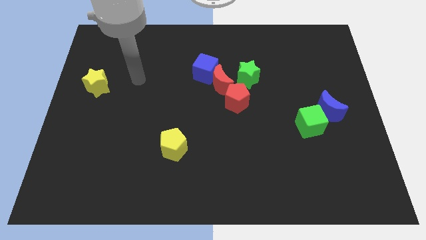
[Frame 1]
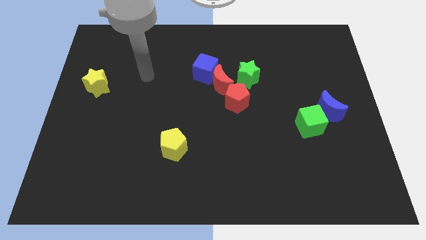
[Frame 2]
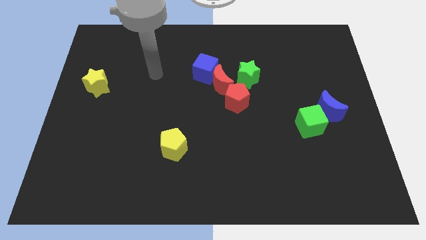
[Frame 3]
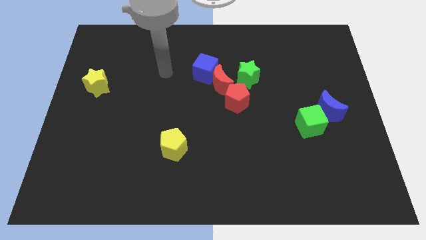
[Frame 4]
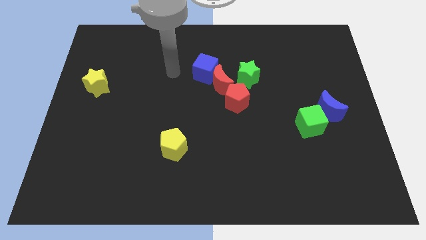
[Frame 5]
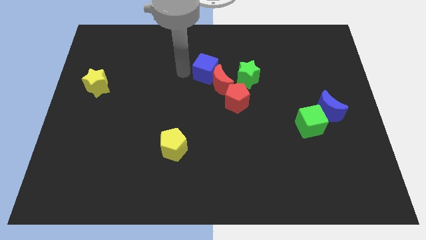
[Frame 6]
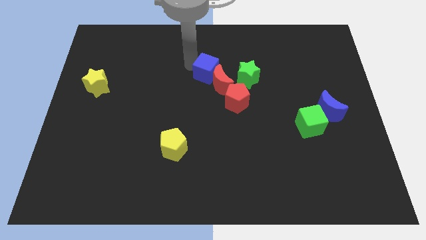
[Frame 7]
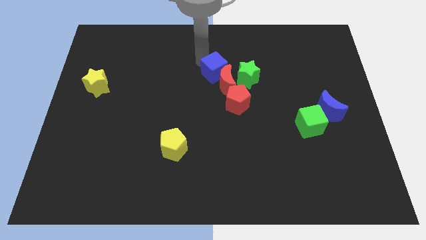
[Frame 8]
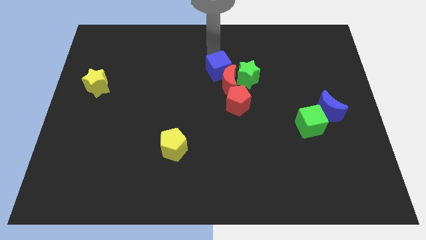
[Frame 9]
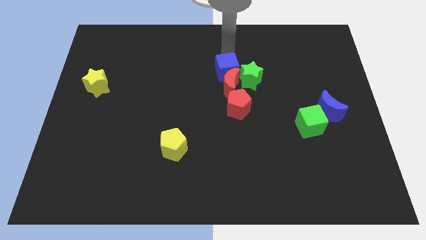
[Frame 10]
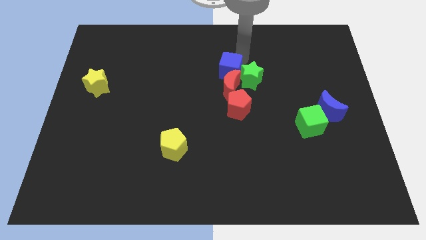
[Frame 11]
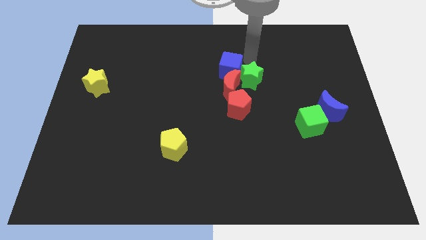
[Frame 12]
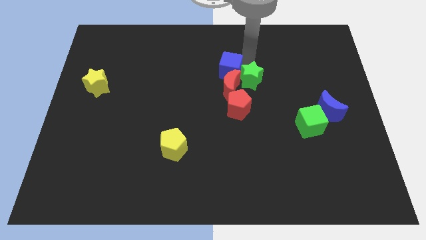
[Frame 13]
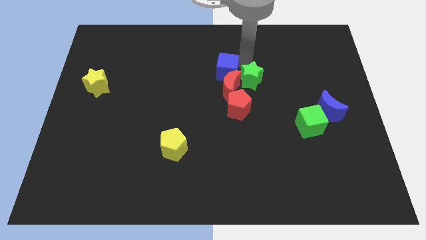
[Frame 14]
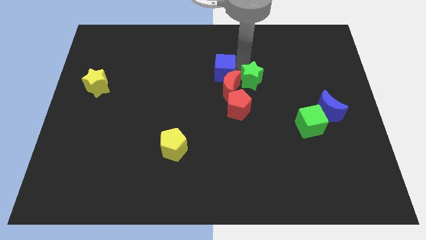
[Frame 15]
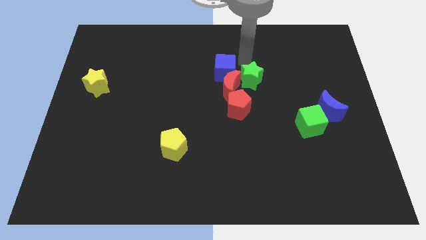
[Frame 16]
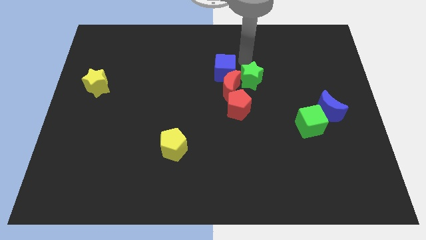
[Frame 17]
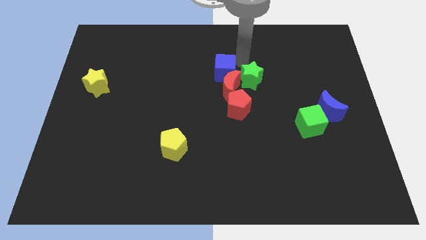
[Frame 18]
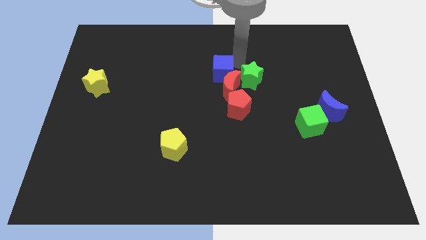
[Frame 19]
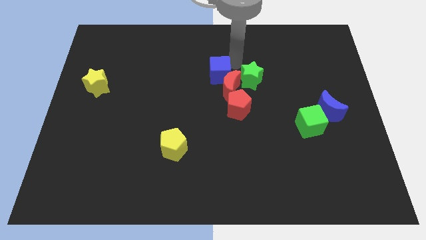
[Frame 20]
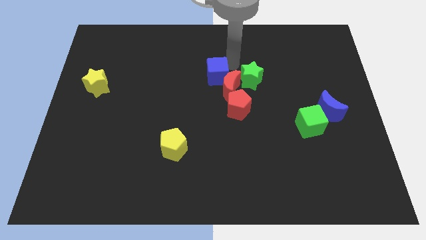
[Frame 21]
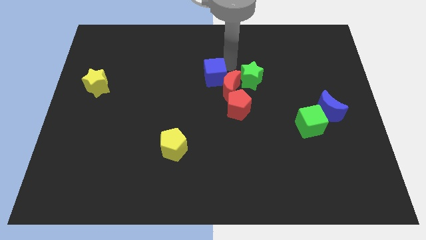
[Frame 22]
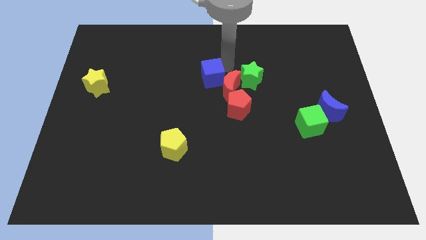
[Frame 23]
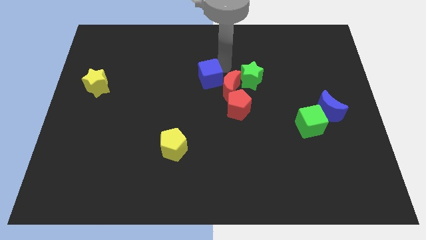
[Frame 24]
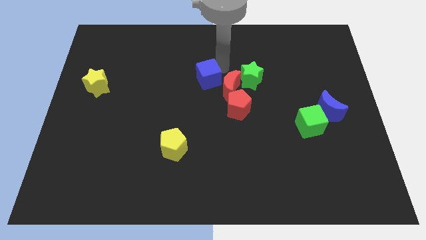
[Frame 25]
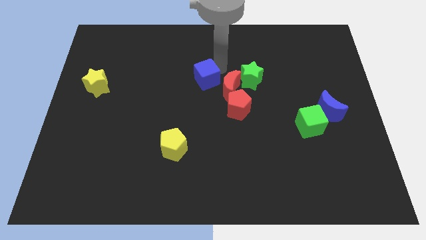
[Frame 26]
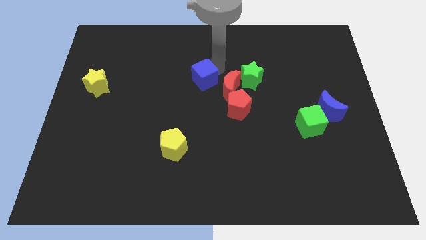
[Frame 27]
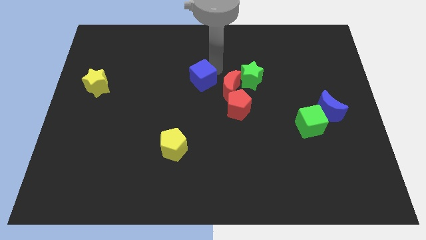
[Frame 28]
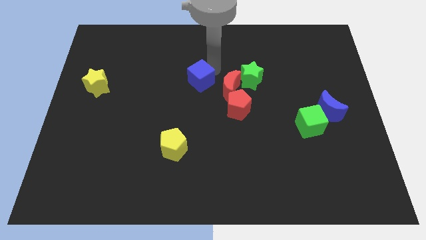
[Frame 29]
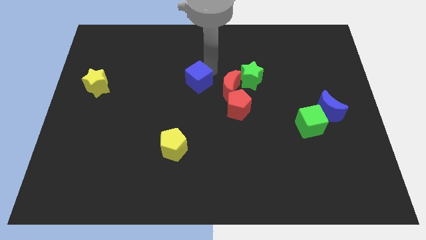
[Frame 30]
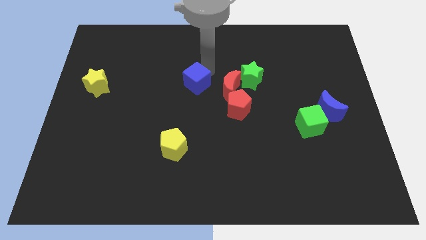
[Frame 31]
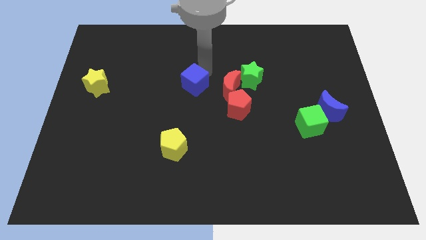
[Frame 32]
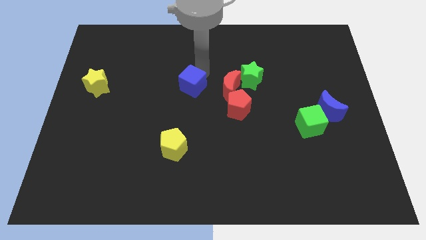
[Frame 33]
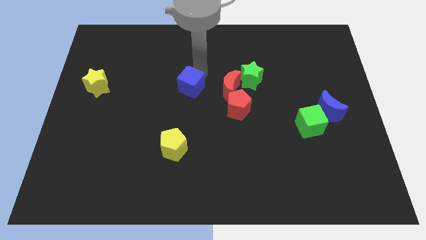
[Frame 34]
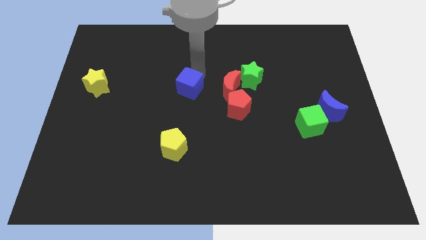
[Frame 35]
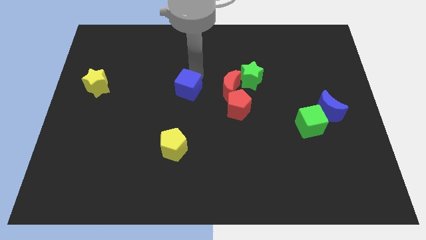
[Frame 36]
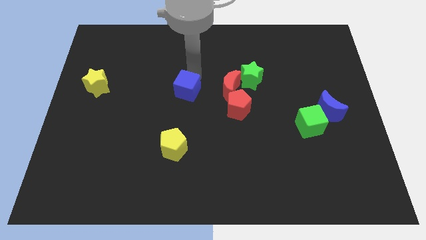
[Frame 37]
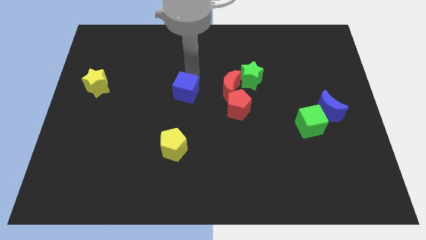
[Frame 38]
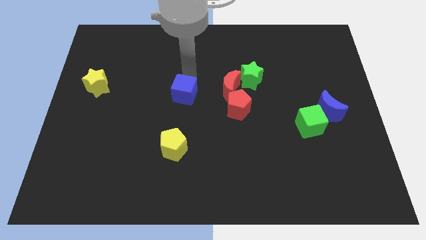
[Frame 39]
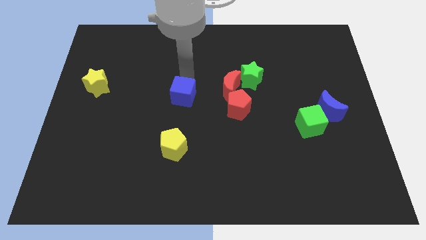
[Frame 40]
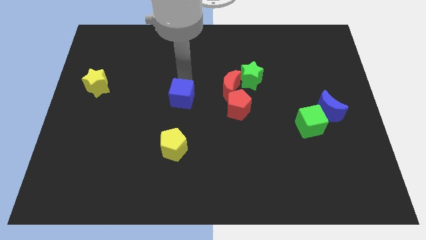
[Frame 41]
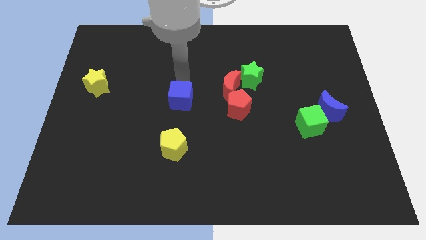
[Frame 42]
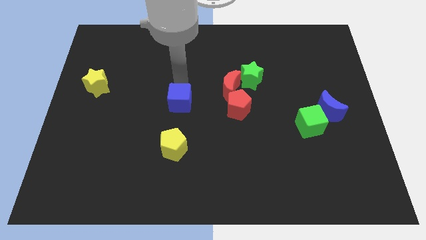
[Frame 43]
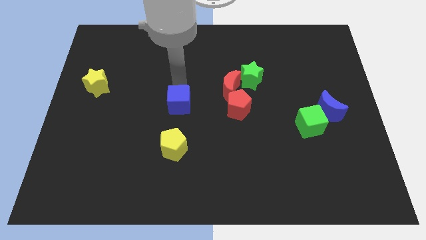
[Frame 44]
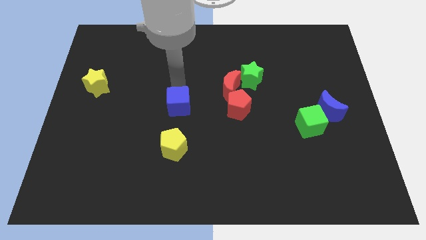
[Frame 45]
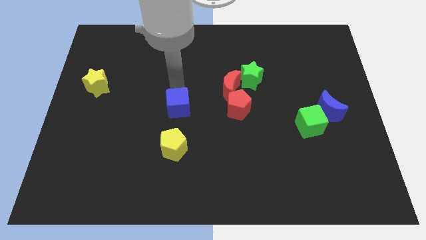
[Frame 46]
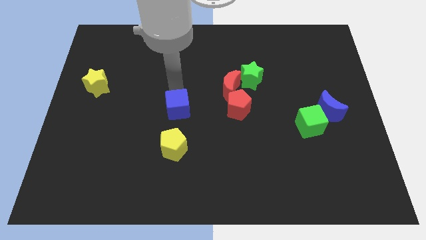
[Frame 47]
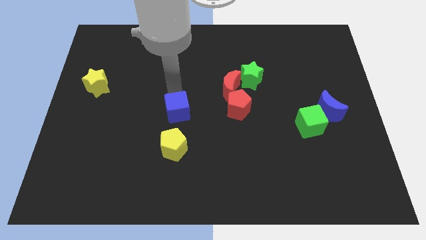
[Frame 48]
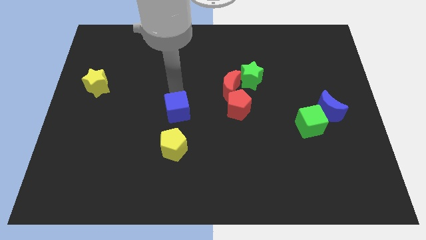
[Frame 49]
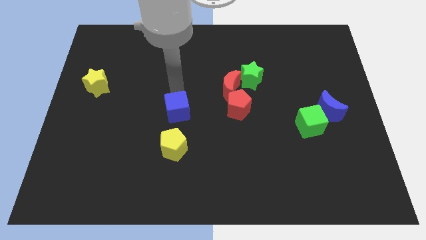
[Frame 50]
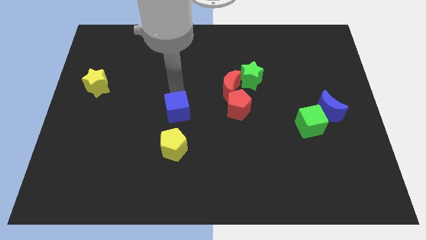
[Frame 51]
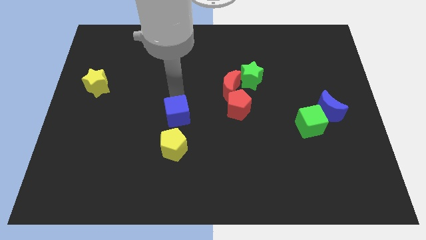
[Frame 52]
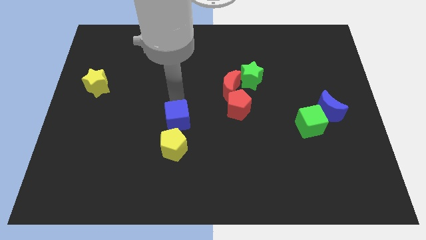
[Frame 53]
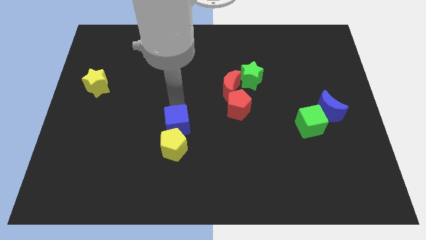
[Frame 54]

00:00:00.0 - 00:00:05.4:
slide the blue cube towards the yellow pentagon

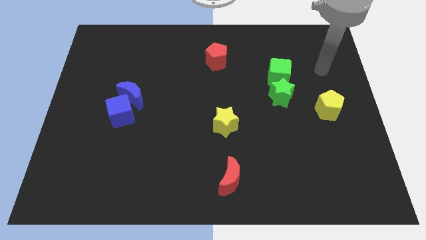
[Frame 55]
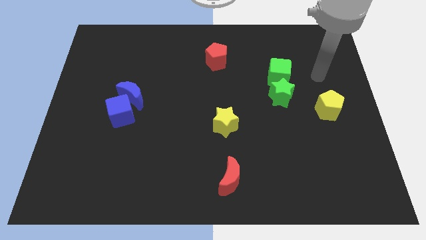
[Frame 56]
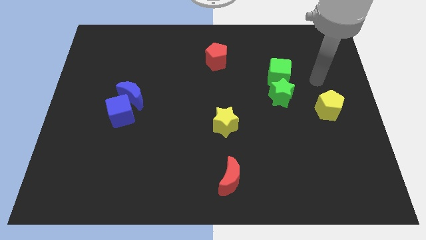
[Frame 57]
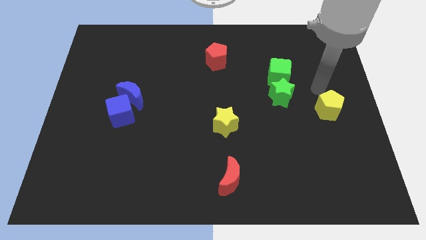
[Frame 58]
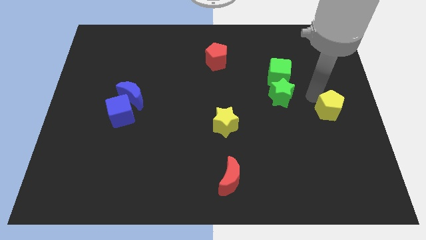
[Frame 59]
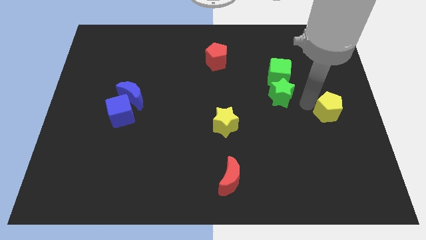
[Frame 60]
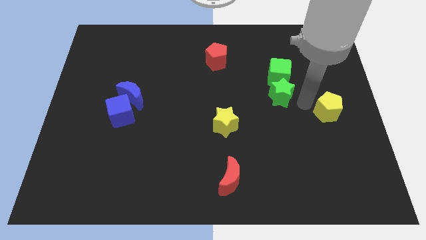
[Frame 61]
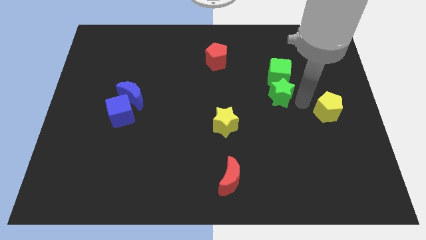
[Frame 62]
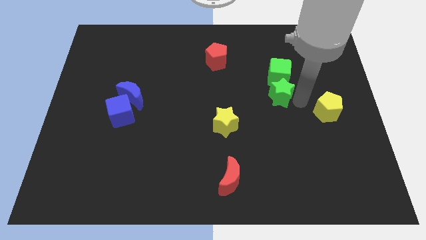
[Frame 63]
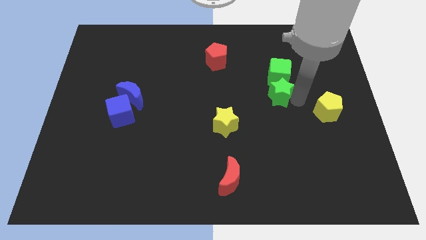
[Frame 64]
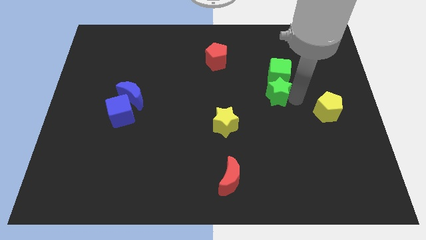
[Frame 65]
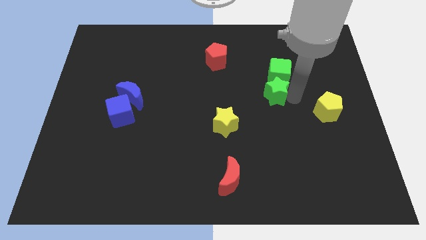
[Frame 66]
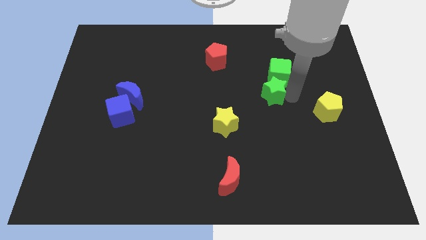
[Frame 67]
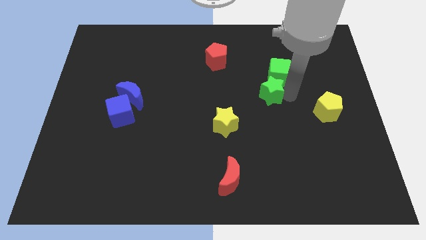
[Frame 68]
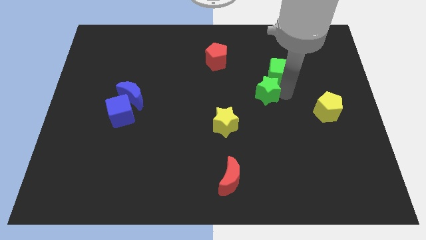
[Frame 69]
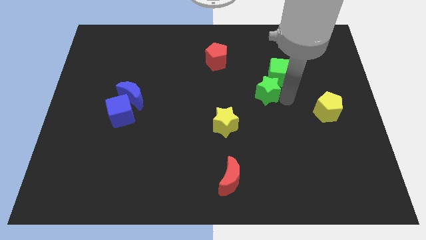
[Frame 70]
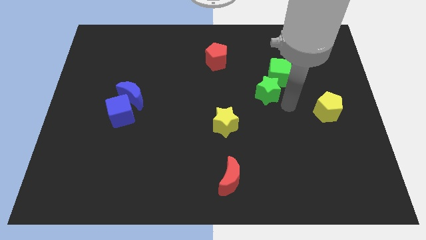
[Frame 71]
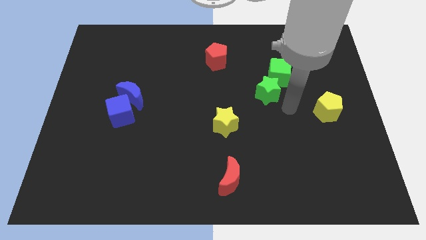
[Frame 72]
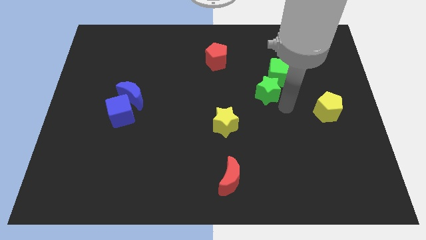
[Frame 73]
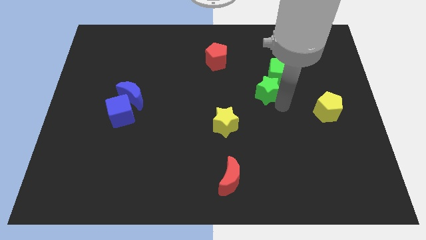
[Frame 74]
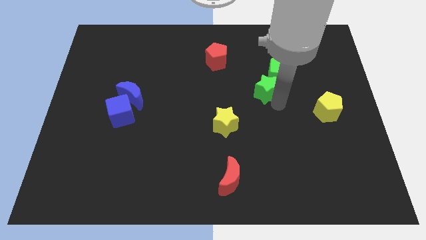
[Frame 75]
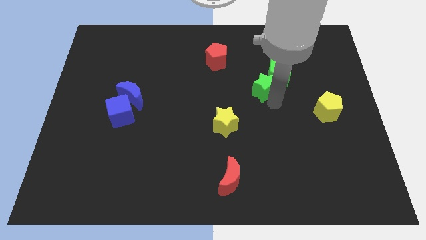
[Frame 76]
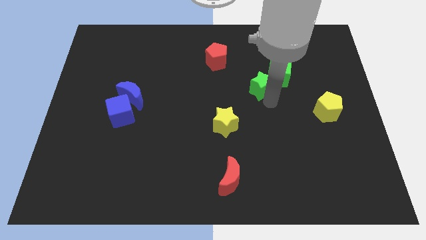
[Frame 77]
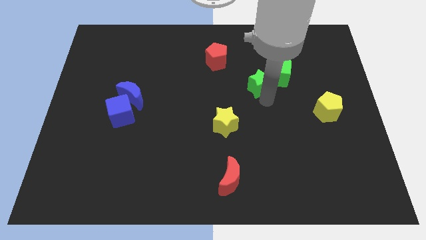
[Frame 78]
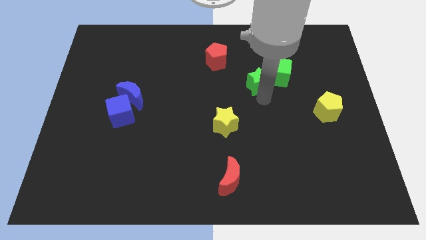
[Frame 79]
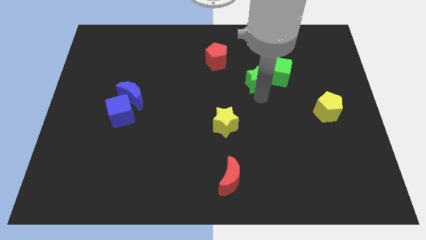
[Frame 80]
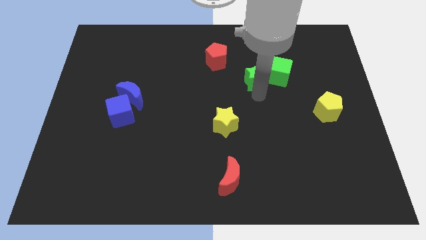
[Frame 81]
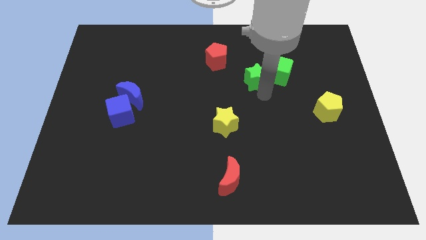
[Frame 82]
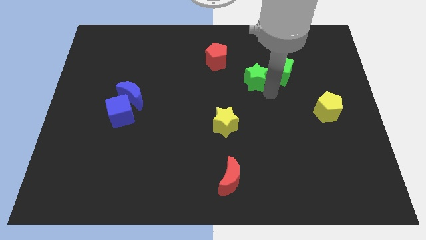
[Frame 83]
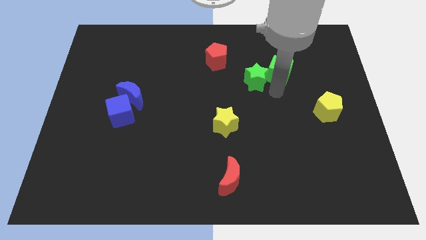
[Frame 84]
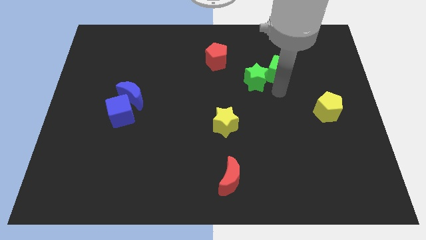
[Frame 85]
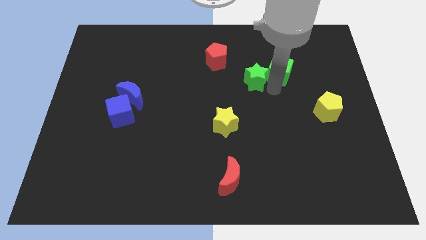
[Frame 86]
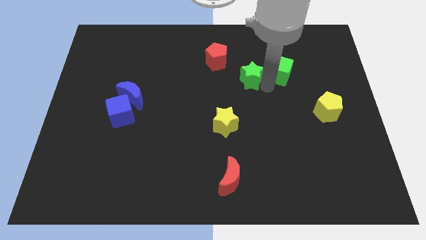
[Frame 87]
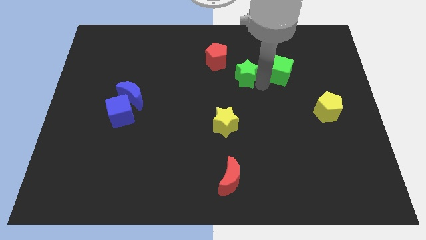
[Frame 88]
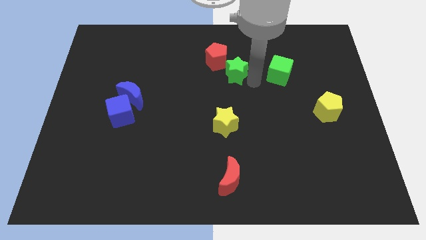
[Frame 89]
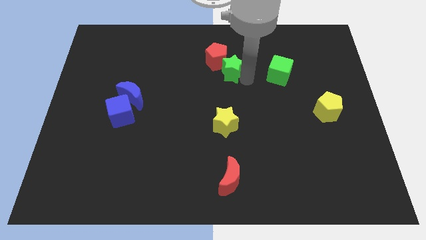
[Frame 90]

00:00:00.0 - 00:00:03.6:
push the green star close to the red pentagon
